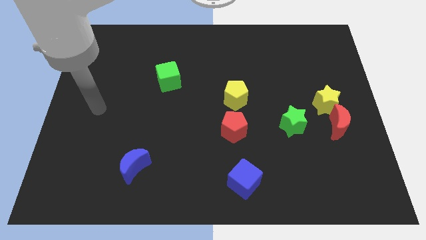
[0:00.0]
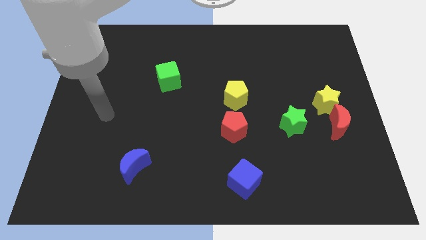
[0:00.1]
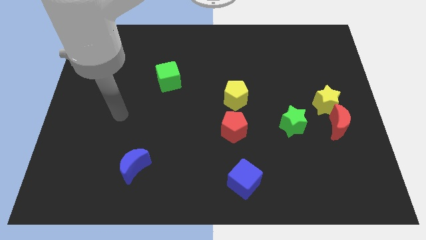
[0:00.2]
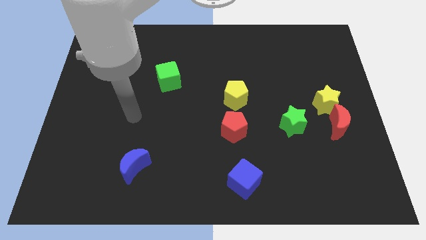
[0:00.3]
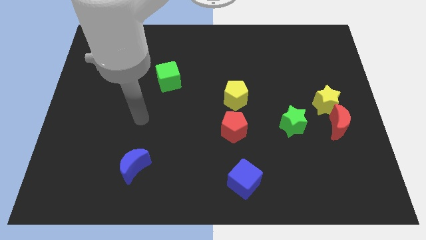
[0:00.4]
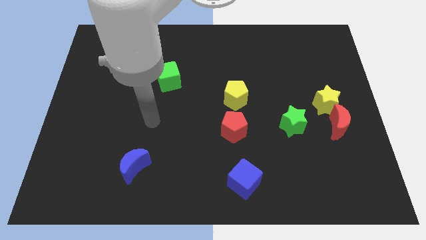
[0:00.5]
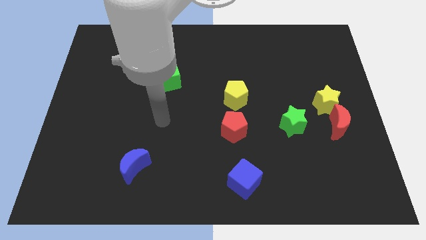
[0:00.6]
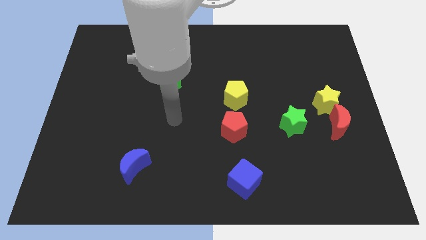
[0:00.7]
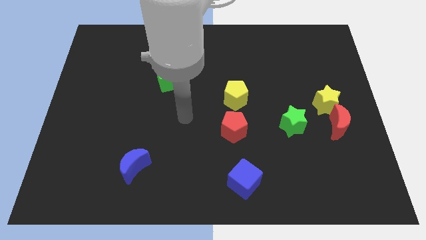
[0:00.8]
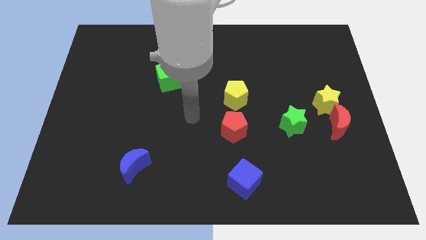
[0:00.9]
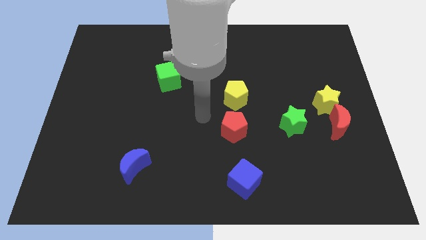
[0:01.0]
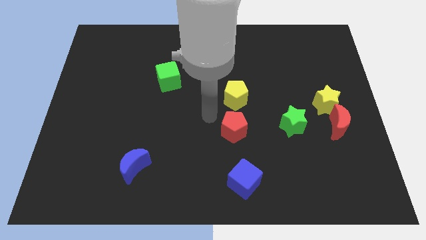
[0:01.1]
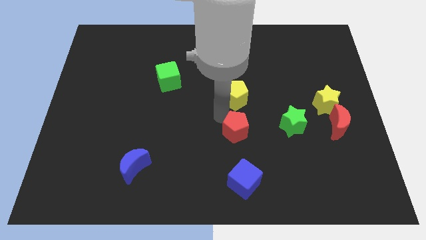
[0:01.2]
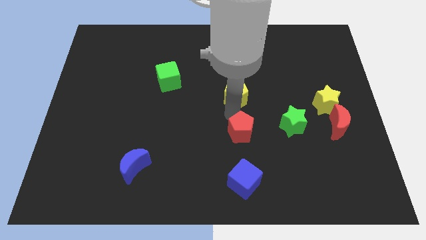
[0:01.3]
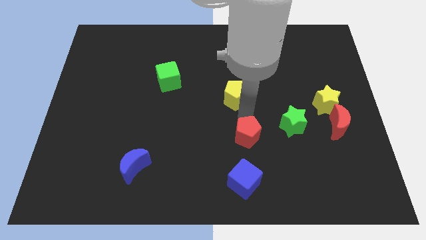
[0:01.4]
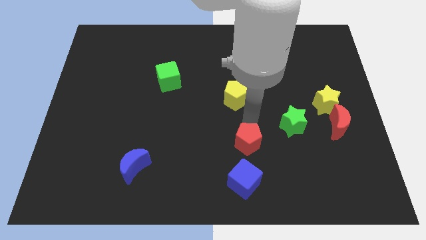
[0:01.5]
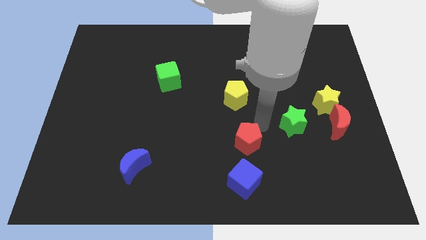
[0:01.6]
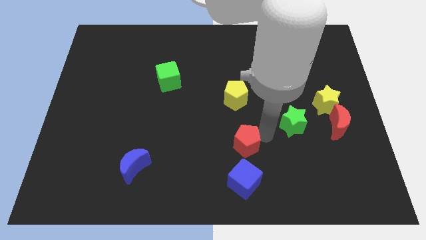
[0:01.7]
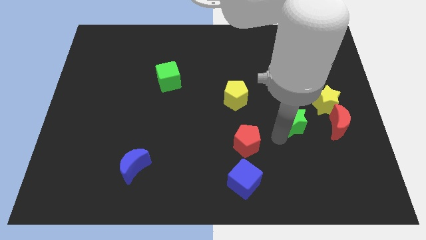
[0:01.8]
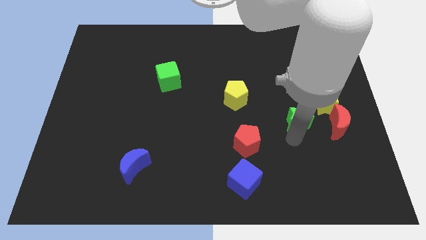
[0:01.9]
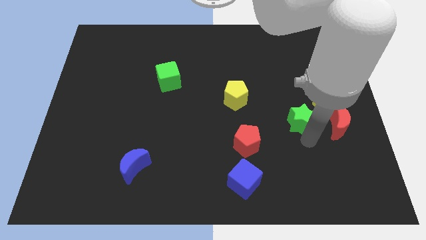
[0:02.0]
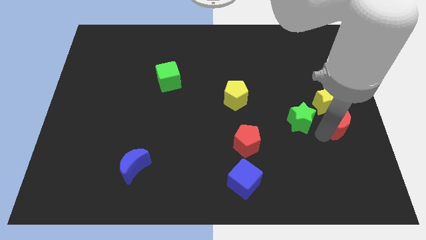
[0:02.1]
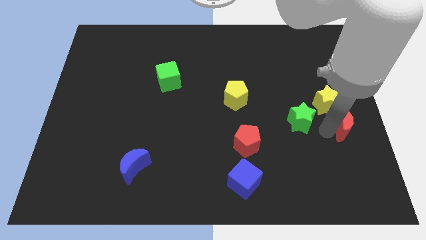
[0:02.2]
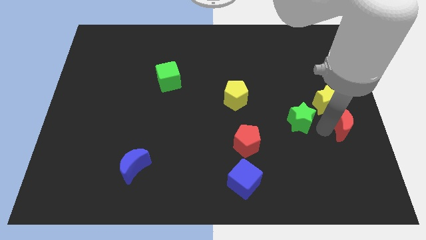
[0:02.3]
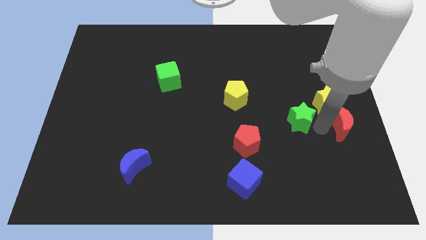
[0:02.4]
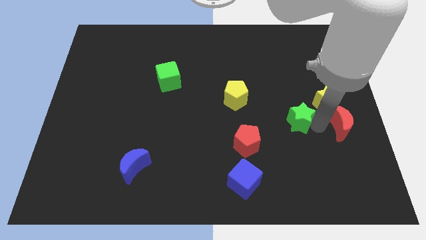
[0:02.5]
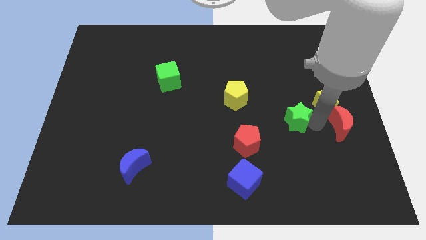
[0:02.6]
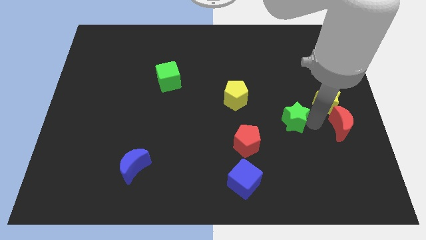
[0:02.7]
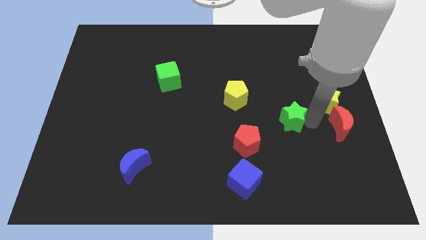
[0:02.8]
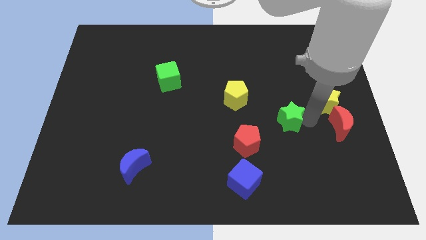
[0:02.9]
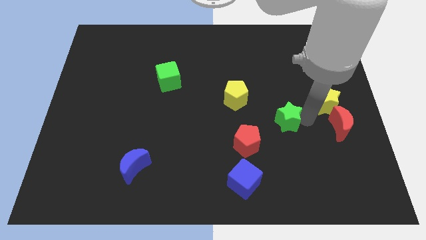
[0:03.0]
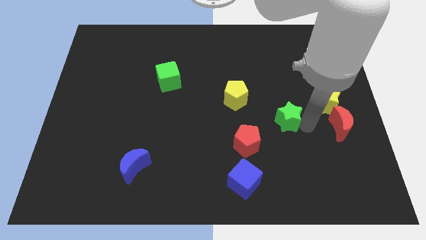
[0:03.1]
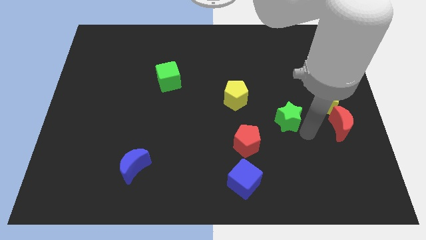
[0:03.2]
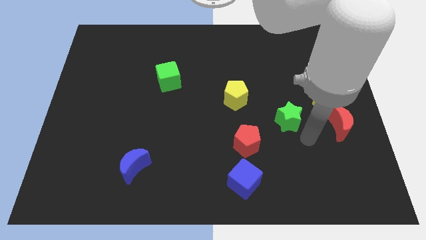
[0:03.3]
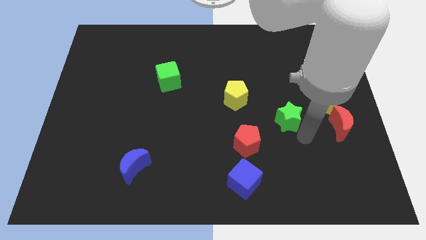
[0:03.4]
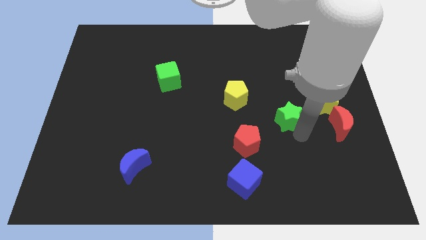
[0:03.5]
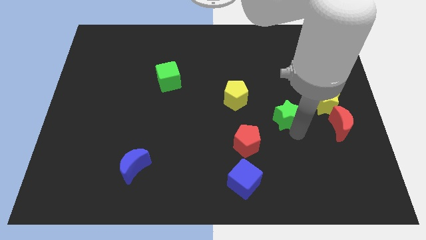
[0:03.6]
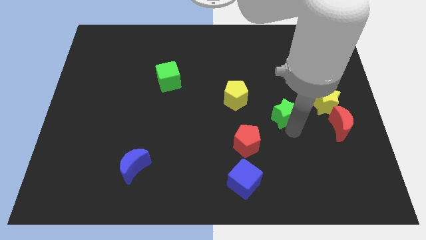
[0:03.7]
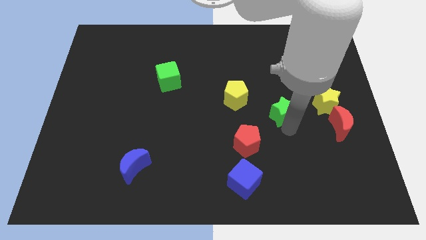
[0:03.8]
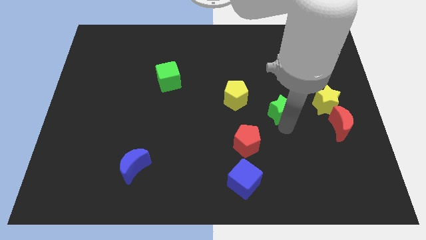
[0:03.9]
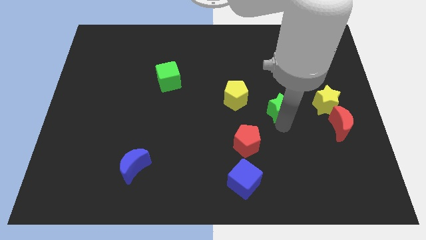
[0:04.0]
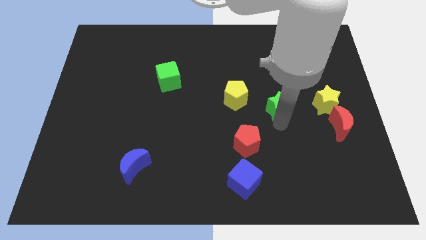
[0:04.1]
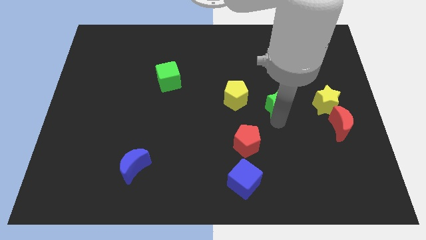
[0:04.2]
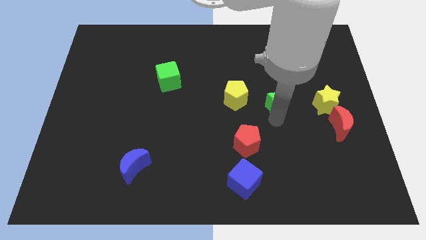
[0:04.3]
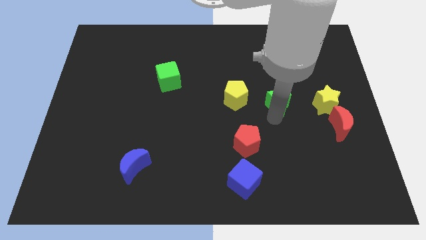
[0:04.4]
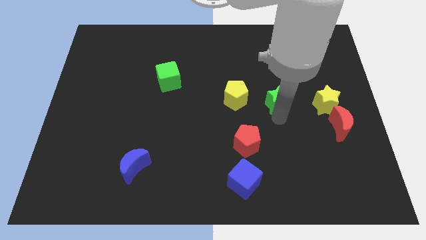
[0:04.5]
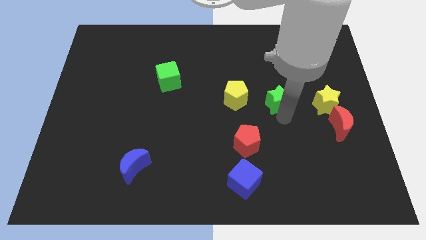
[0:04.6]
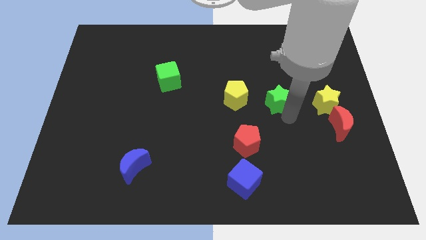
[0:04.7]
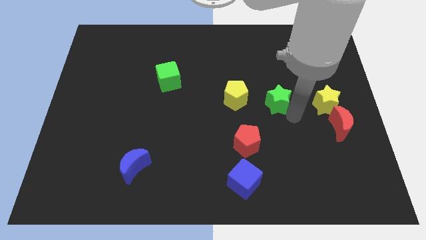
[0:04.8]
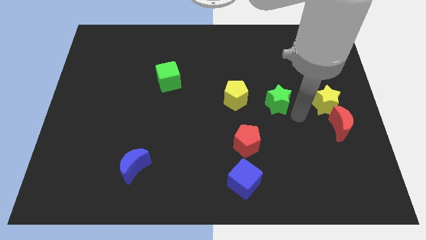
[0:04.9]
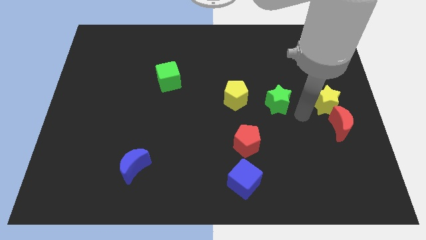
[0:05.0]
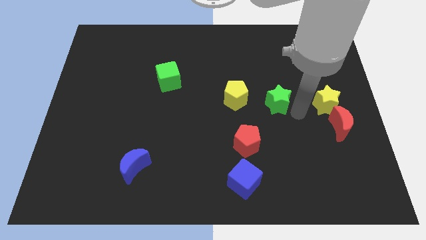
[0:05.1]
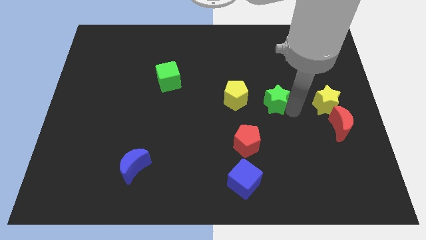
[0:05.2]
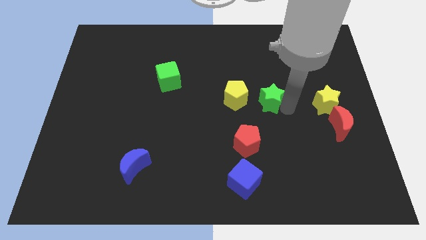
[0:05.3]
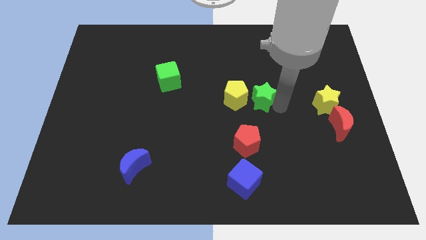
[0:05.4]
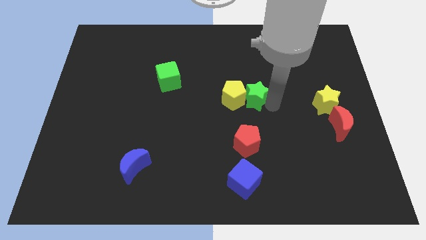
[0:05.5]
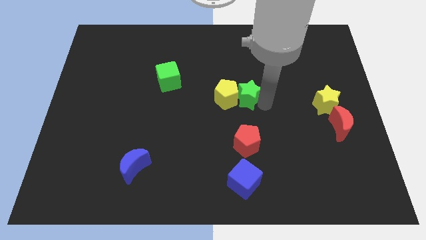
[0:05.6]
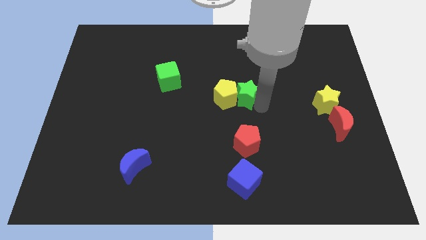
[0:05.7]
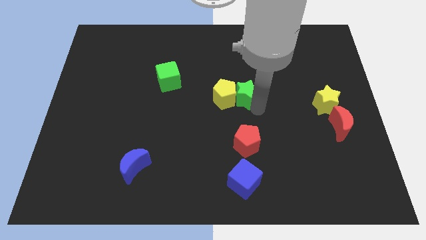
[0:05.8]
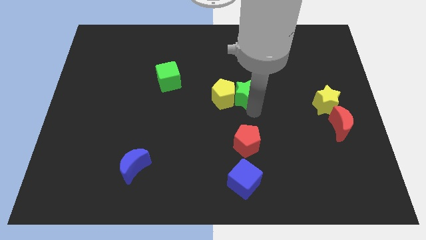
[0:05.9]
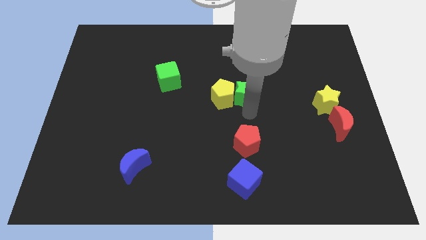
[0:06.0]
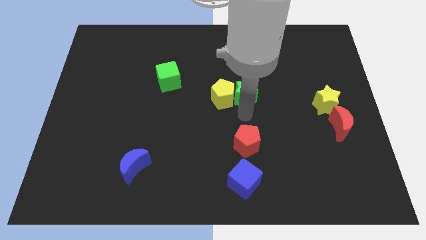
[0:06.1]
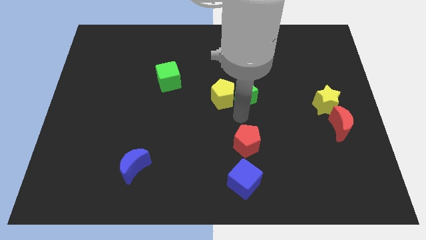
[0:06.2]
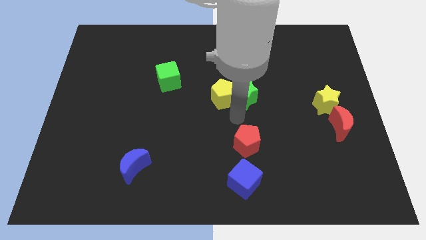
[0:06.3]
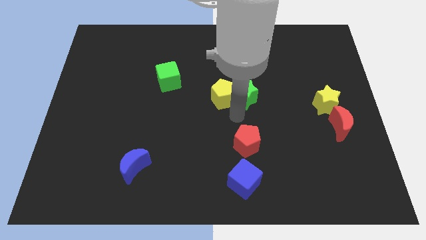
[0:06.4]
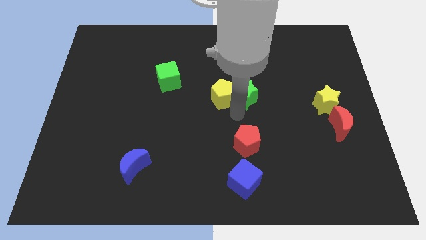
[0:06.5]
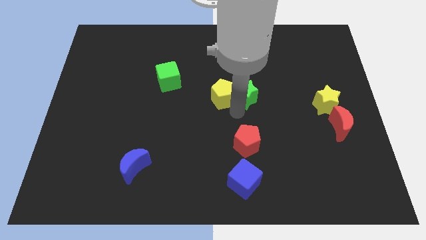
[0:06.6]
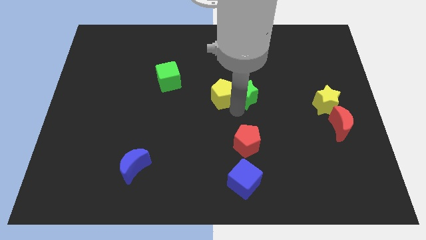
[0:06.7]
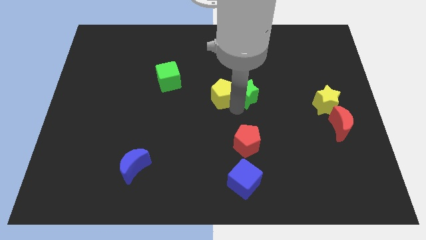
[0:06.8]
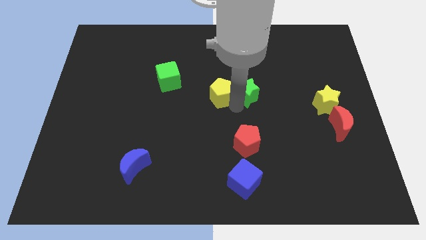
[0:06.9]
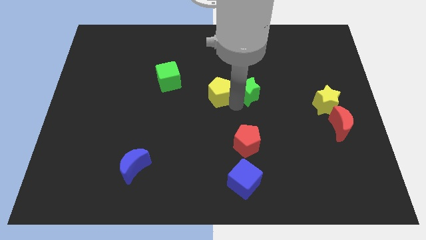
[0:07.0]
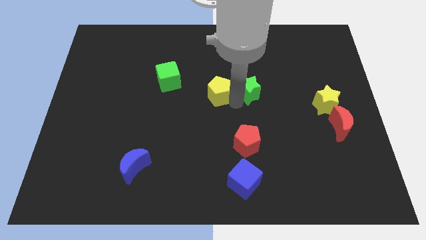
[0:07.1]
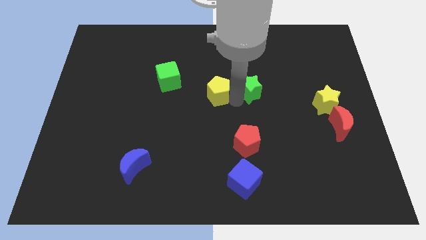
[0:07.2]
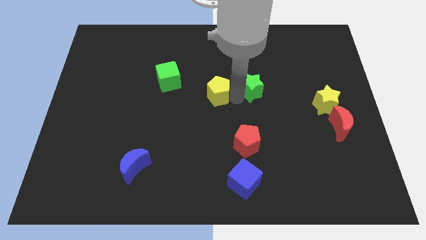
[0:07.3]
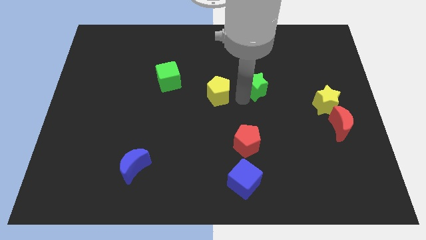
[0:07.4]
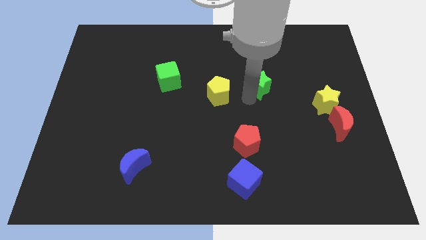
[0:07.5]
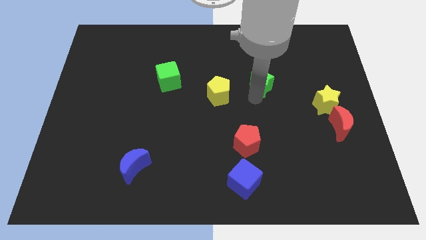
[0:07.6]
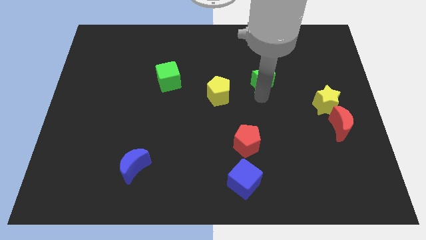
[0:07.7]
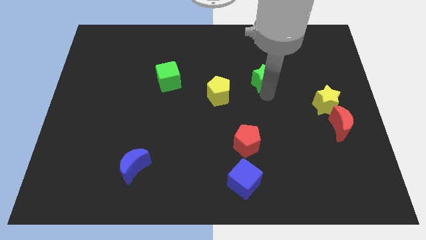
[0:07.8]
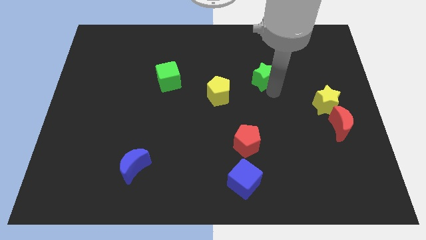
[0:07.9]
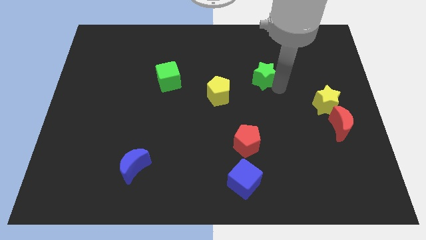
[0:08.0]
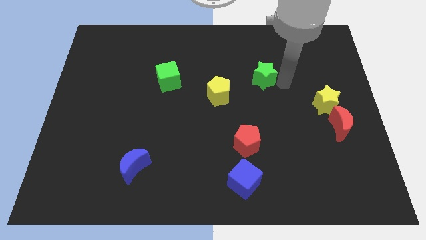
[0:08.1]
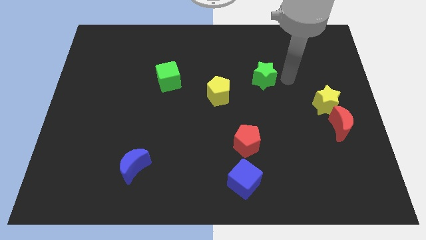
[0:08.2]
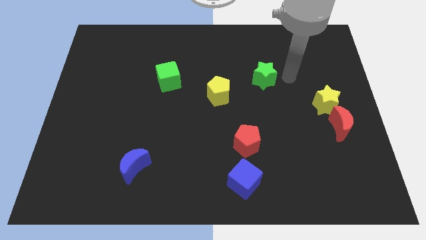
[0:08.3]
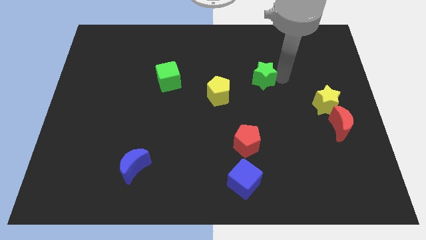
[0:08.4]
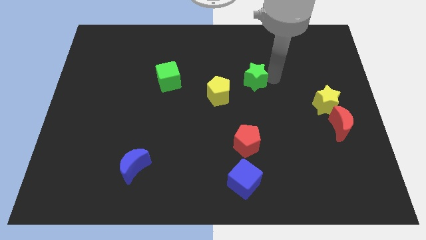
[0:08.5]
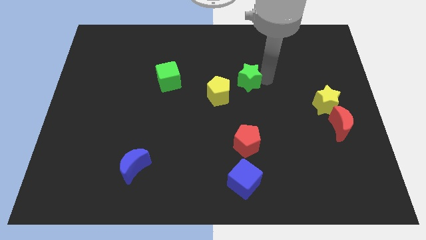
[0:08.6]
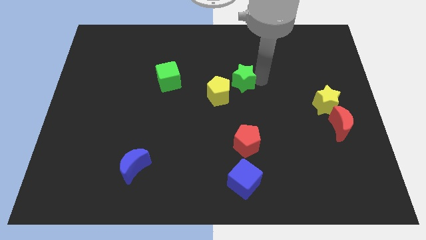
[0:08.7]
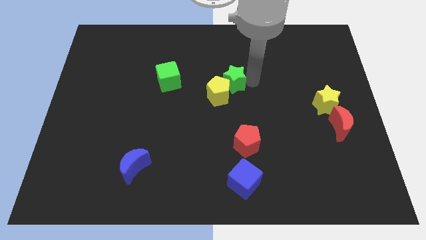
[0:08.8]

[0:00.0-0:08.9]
slide the green star to the right of the green cube
